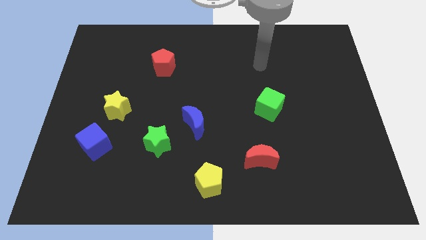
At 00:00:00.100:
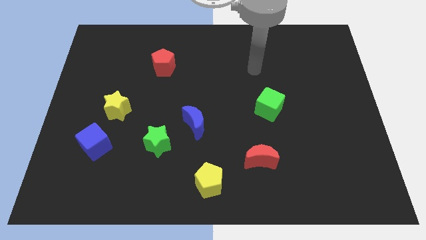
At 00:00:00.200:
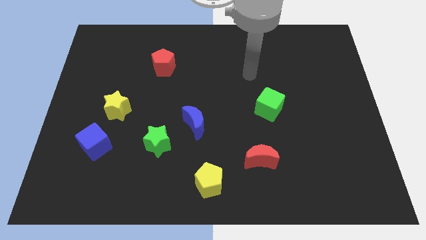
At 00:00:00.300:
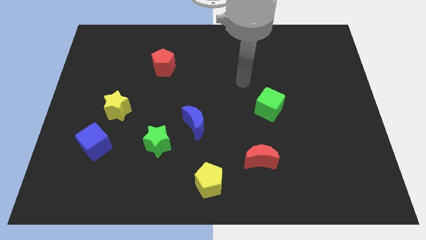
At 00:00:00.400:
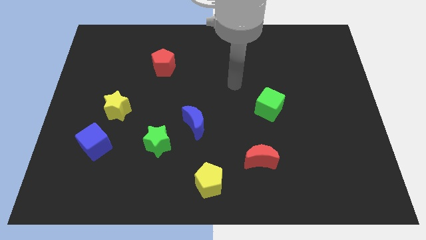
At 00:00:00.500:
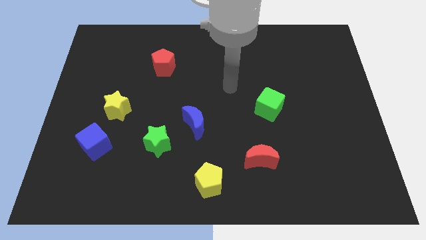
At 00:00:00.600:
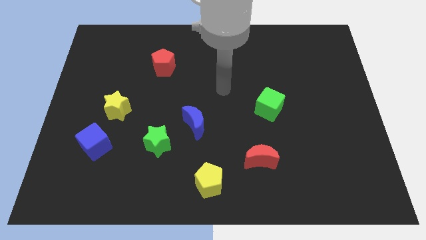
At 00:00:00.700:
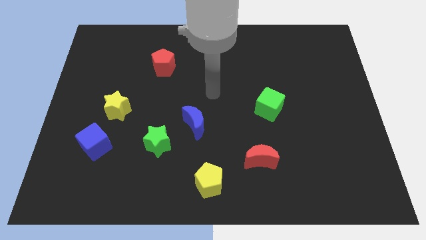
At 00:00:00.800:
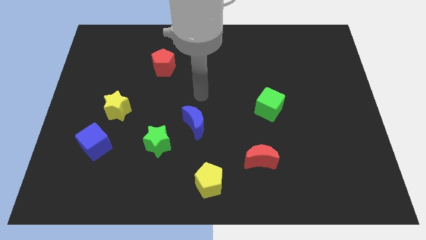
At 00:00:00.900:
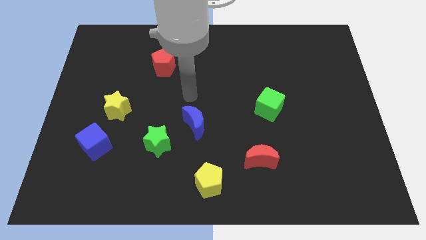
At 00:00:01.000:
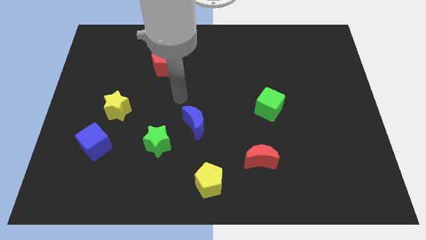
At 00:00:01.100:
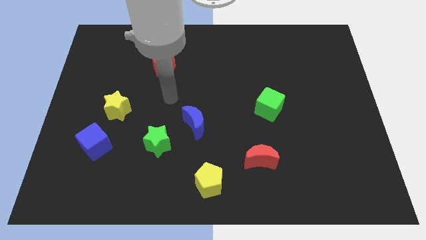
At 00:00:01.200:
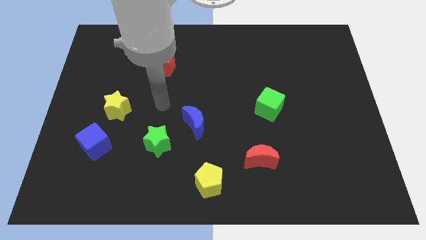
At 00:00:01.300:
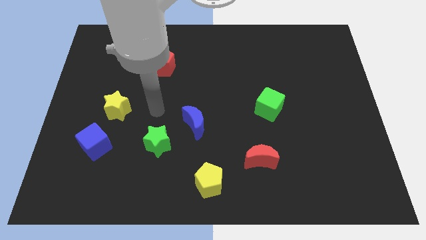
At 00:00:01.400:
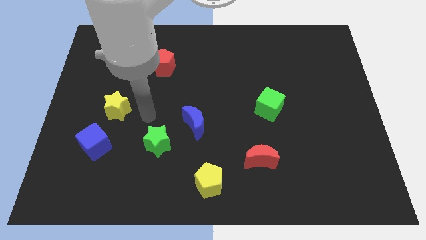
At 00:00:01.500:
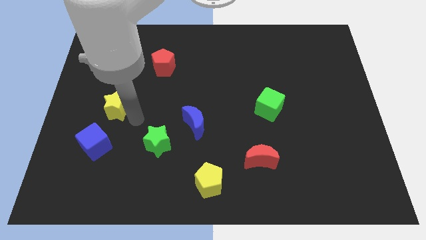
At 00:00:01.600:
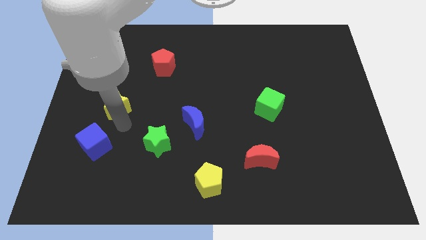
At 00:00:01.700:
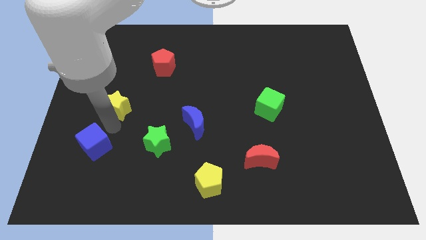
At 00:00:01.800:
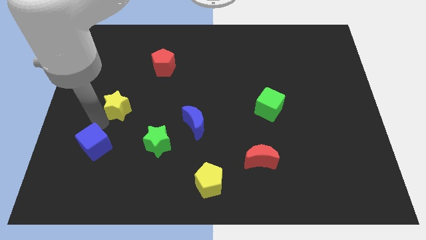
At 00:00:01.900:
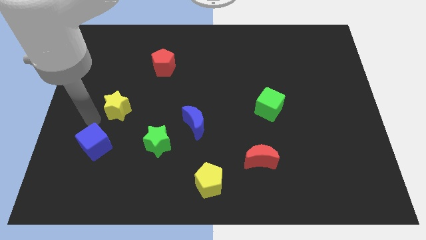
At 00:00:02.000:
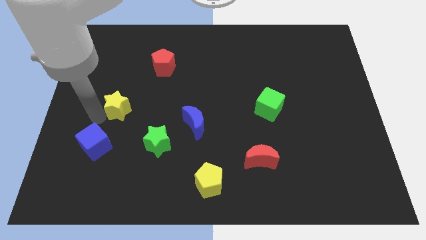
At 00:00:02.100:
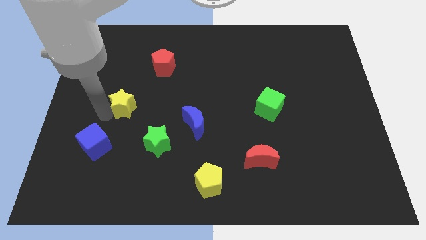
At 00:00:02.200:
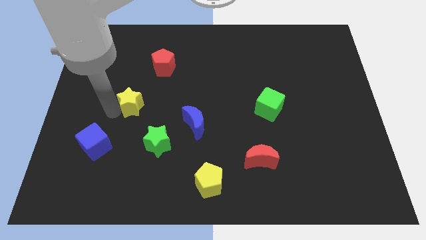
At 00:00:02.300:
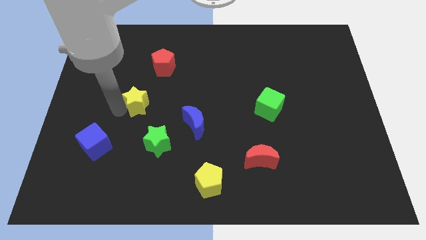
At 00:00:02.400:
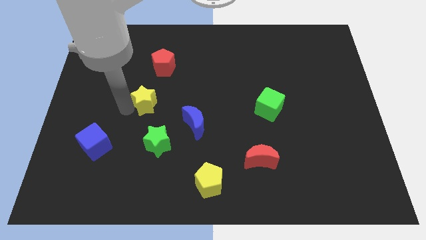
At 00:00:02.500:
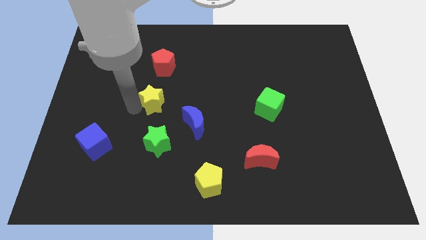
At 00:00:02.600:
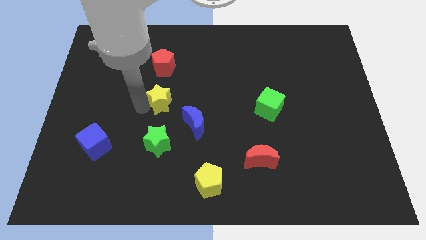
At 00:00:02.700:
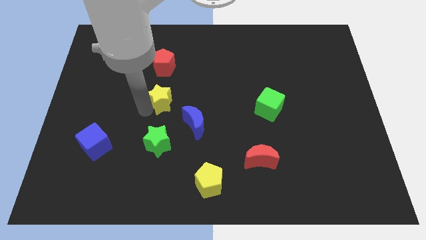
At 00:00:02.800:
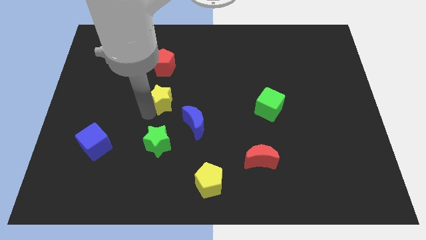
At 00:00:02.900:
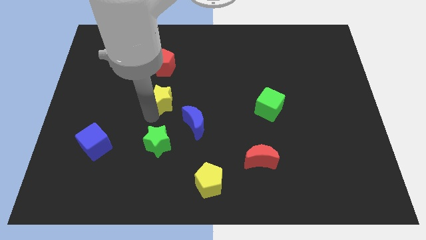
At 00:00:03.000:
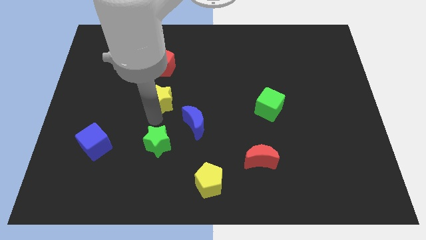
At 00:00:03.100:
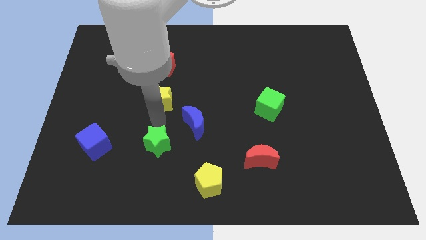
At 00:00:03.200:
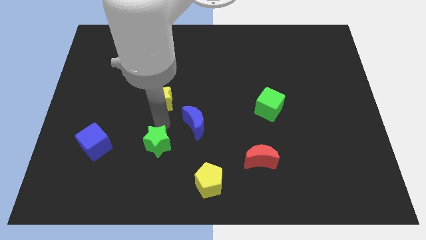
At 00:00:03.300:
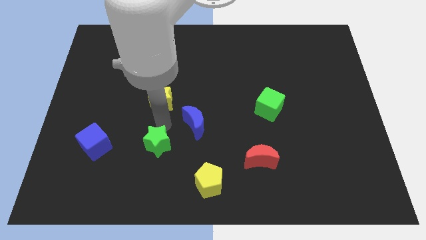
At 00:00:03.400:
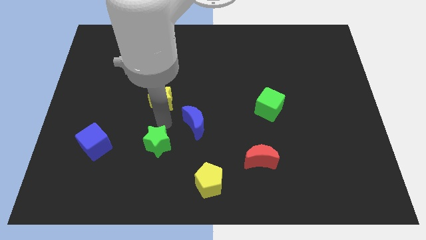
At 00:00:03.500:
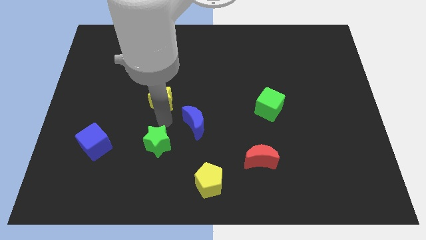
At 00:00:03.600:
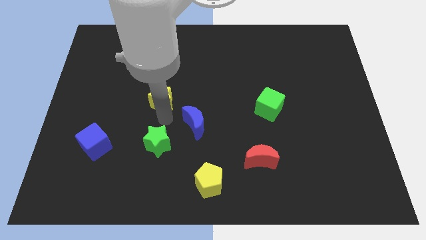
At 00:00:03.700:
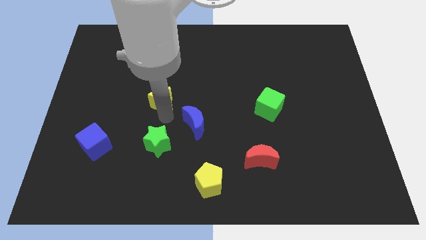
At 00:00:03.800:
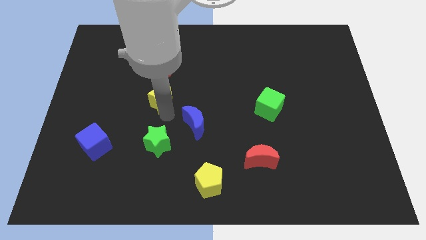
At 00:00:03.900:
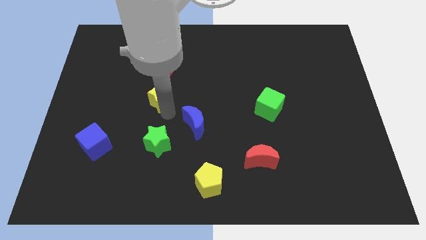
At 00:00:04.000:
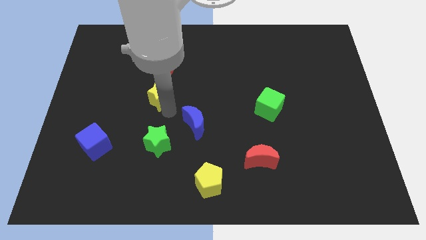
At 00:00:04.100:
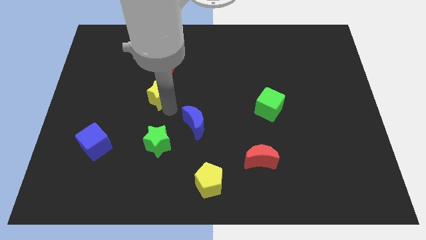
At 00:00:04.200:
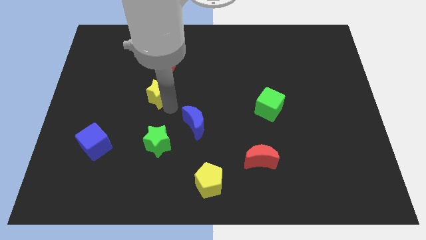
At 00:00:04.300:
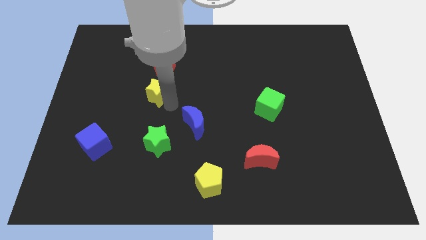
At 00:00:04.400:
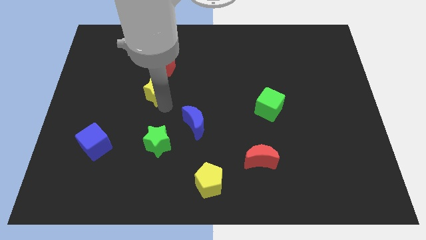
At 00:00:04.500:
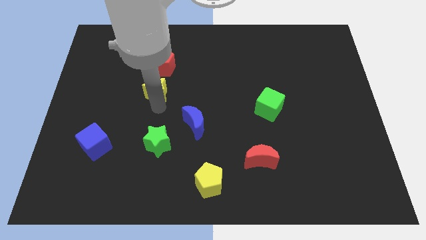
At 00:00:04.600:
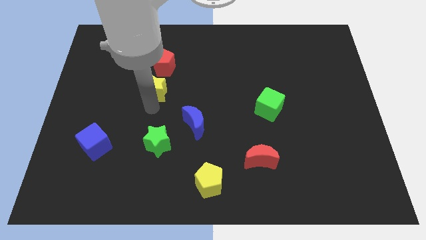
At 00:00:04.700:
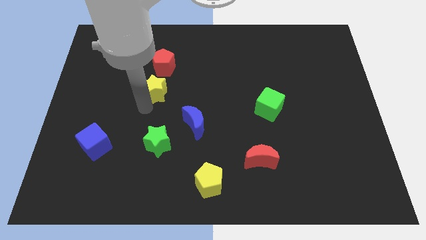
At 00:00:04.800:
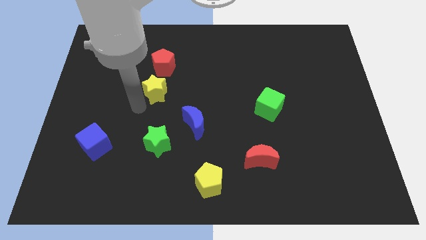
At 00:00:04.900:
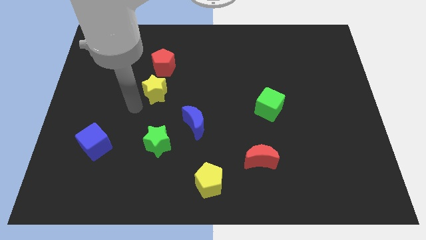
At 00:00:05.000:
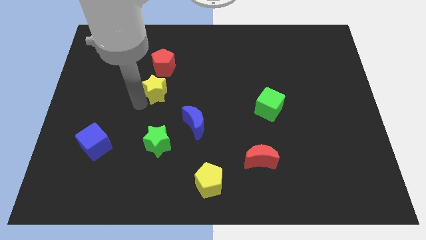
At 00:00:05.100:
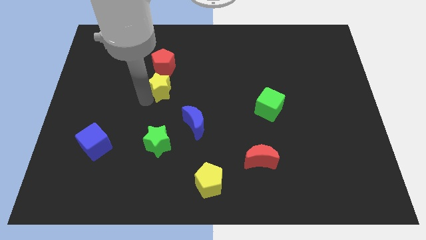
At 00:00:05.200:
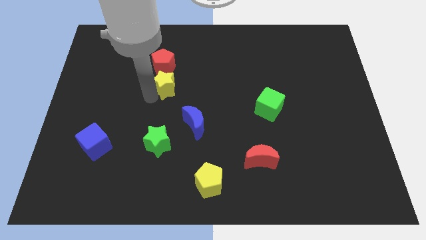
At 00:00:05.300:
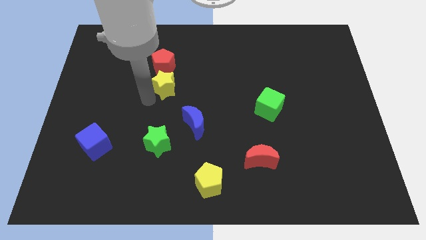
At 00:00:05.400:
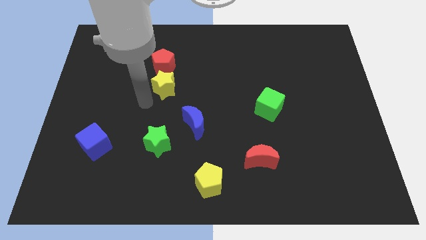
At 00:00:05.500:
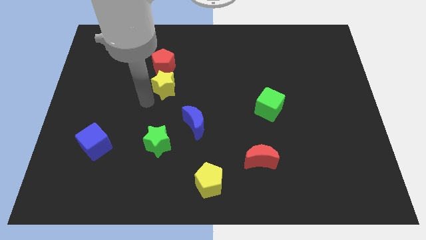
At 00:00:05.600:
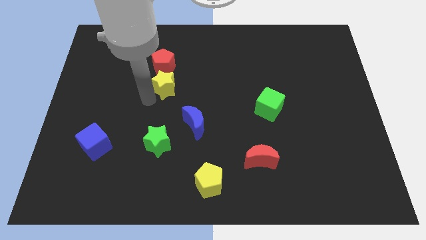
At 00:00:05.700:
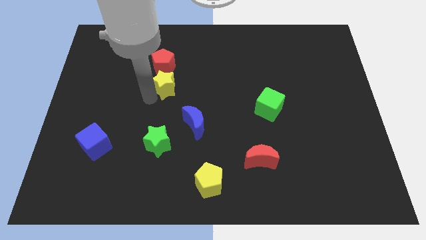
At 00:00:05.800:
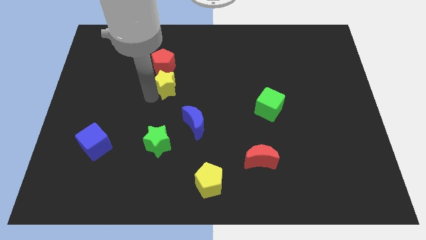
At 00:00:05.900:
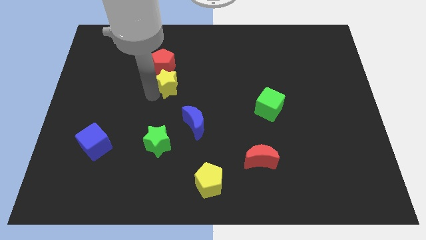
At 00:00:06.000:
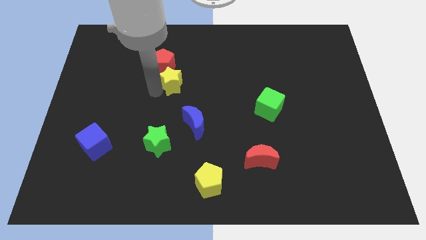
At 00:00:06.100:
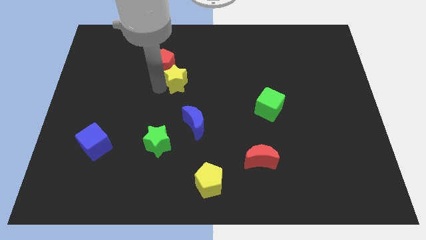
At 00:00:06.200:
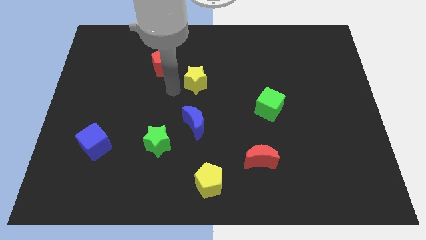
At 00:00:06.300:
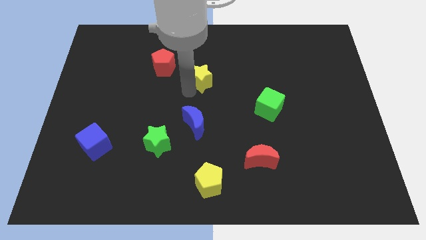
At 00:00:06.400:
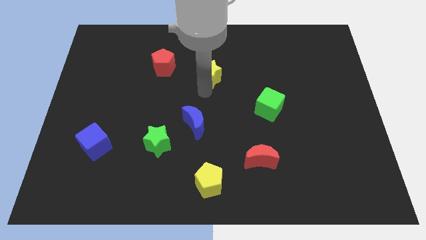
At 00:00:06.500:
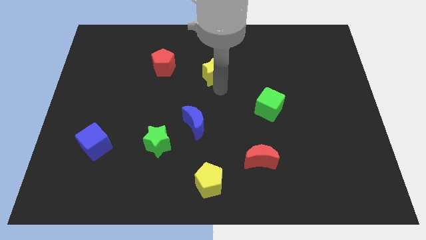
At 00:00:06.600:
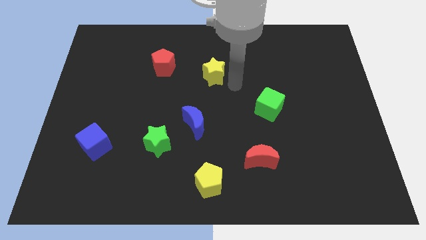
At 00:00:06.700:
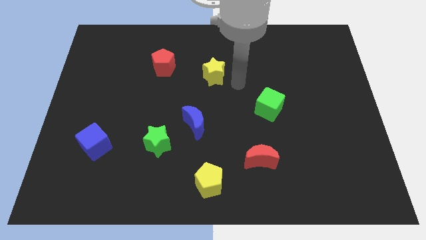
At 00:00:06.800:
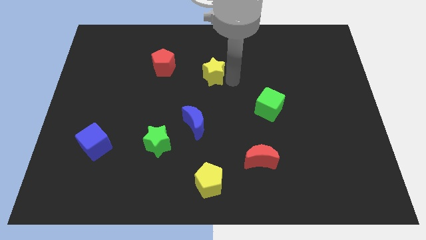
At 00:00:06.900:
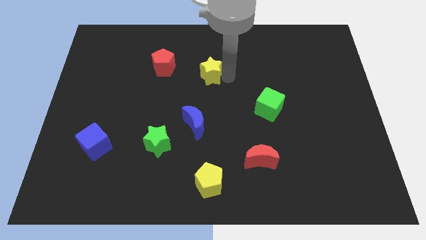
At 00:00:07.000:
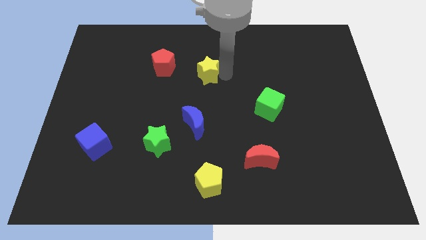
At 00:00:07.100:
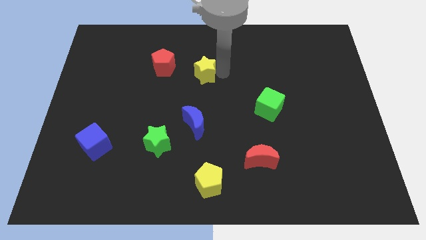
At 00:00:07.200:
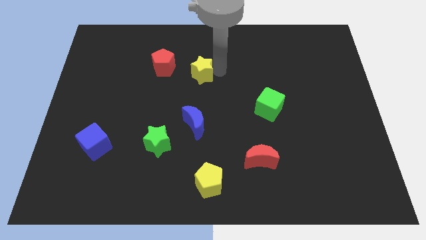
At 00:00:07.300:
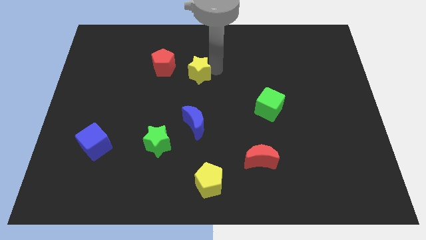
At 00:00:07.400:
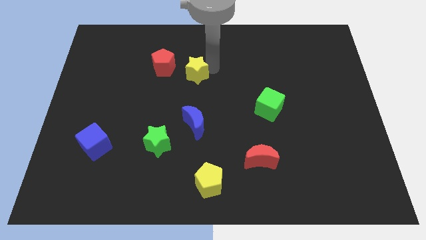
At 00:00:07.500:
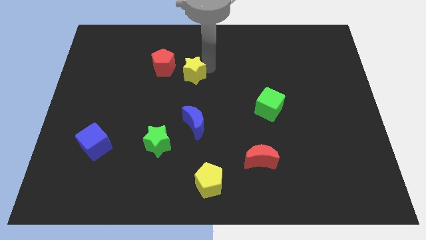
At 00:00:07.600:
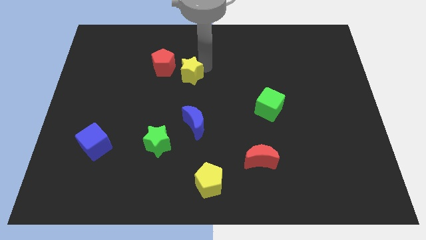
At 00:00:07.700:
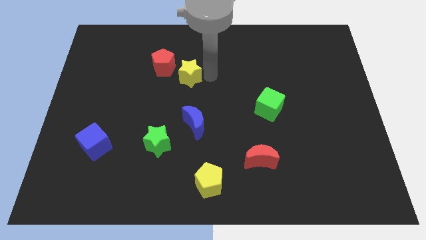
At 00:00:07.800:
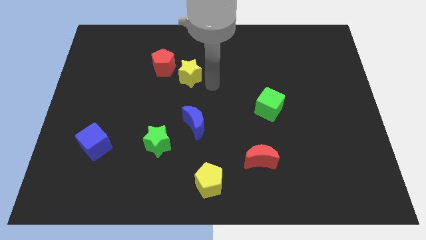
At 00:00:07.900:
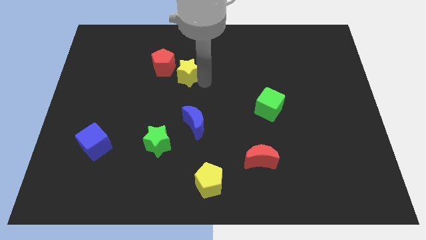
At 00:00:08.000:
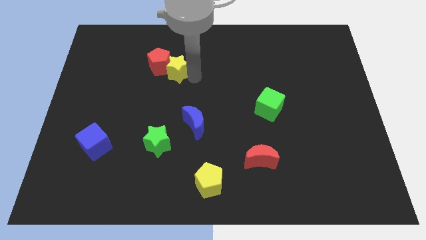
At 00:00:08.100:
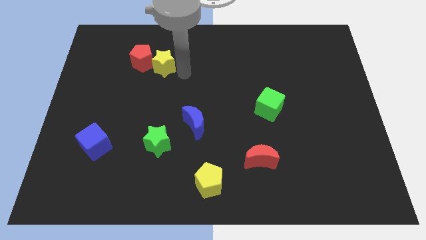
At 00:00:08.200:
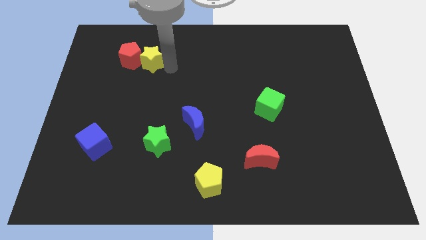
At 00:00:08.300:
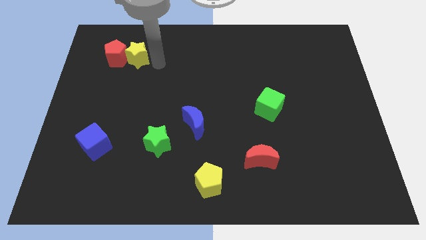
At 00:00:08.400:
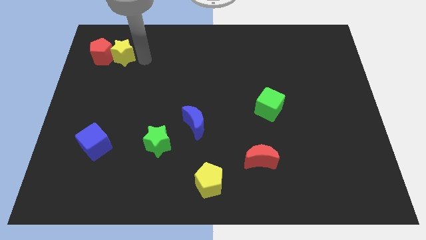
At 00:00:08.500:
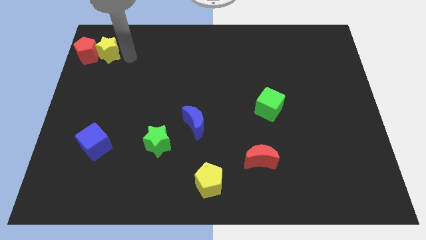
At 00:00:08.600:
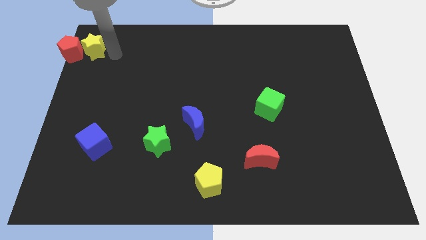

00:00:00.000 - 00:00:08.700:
put the yellow star to the top left corner
